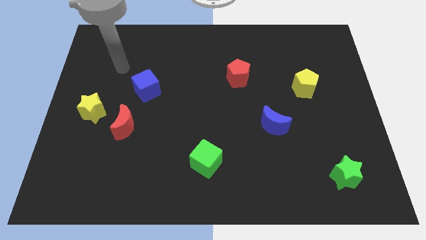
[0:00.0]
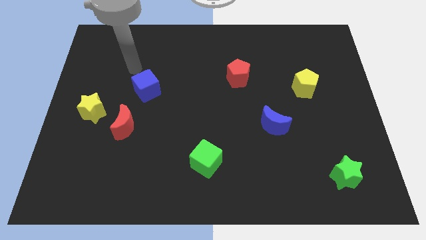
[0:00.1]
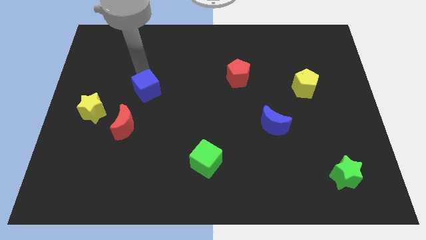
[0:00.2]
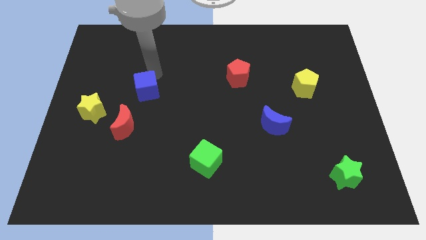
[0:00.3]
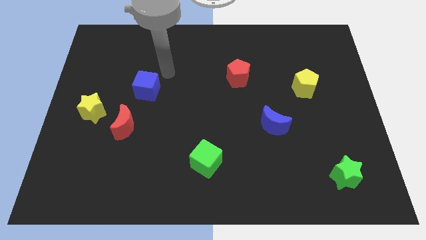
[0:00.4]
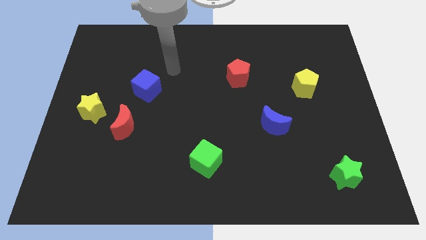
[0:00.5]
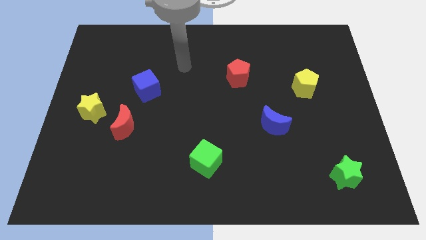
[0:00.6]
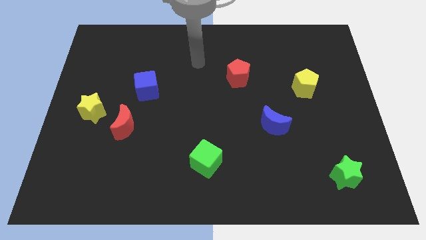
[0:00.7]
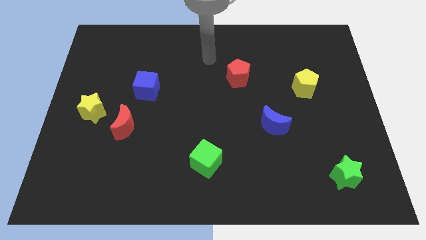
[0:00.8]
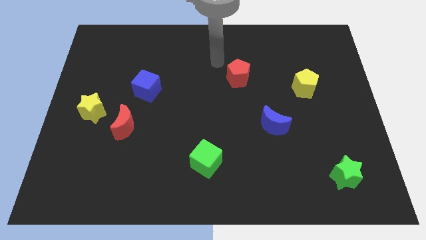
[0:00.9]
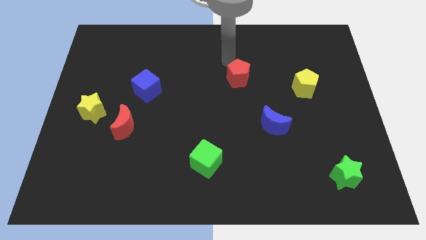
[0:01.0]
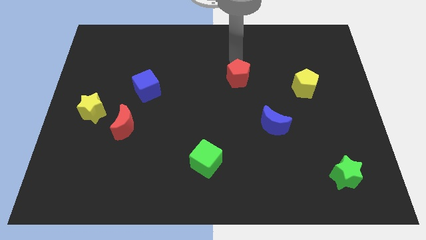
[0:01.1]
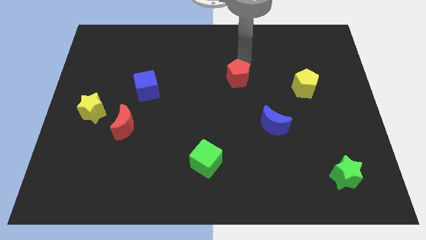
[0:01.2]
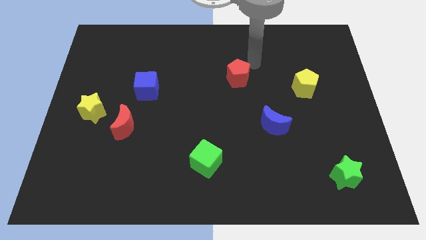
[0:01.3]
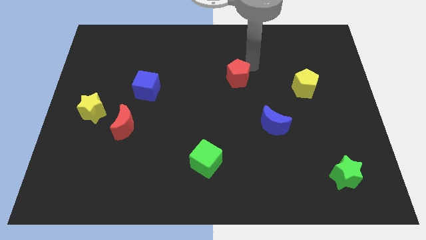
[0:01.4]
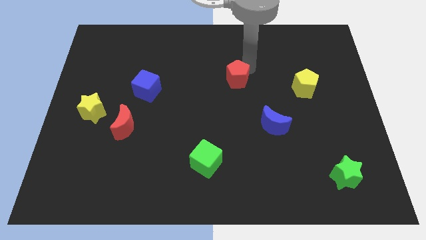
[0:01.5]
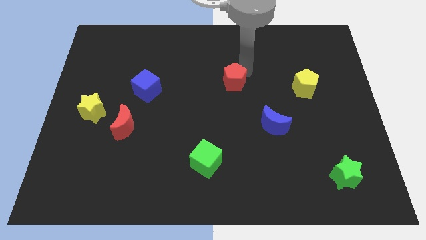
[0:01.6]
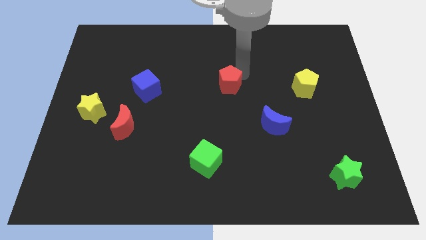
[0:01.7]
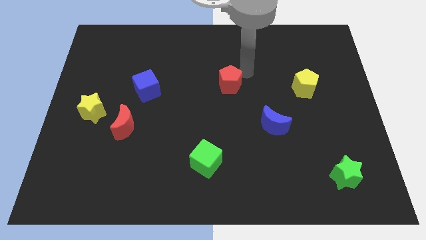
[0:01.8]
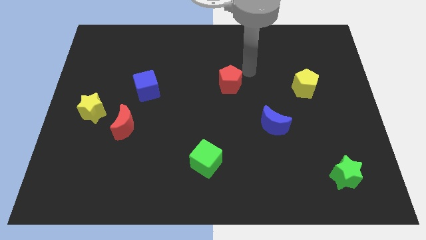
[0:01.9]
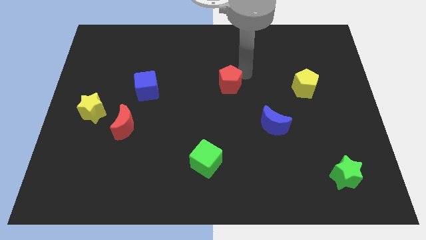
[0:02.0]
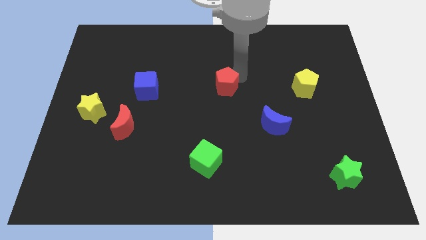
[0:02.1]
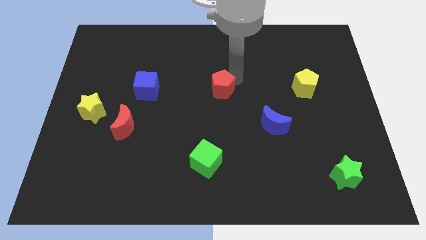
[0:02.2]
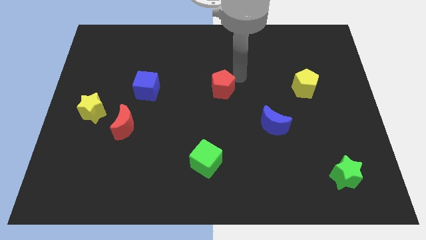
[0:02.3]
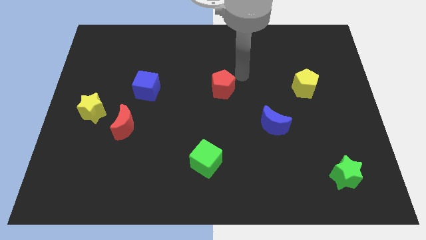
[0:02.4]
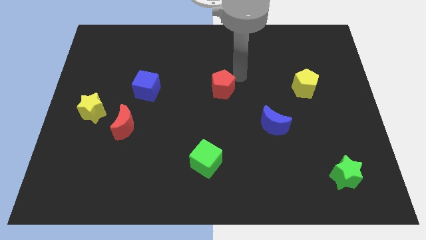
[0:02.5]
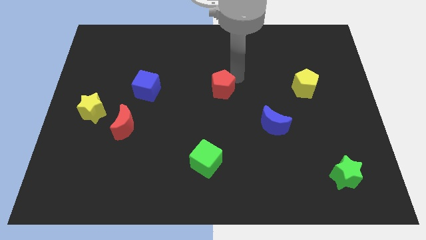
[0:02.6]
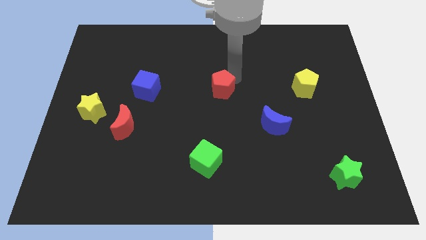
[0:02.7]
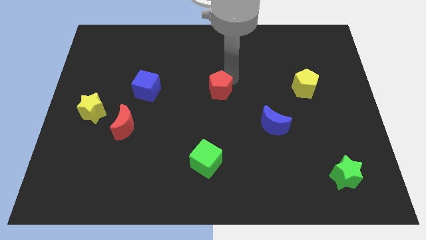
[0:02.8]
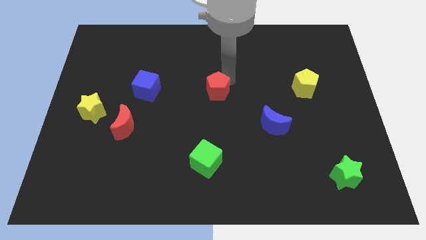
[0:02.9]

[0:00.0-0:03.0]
push the red pentagon somewhat down and to the left

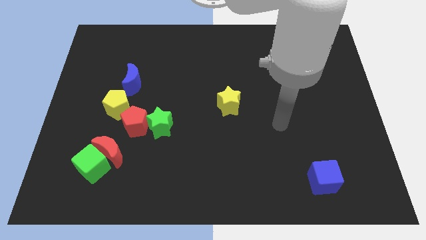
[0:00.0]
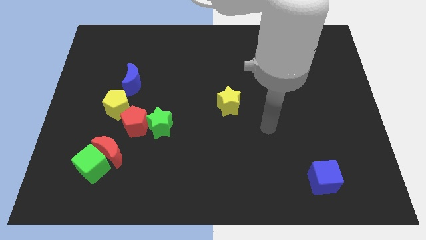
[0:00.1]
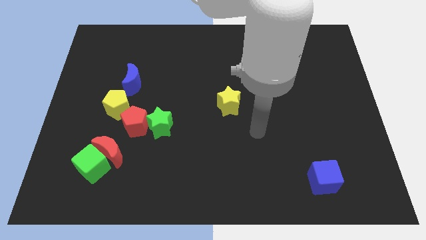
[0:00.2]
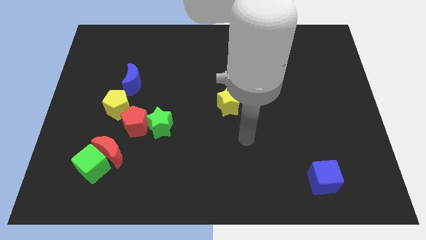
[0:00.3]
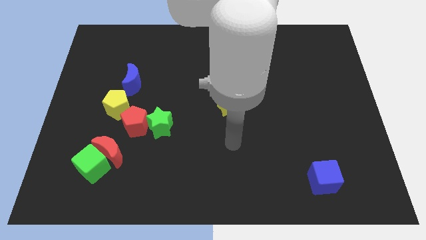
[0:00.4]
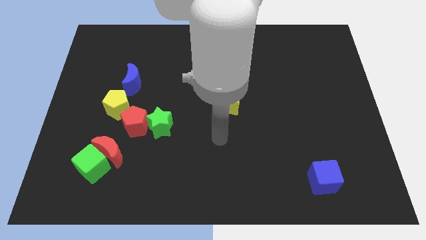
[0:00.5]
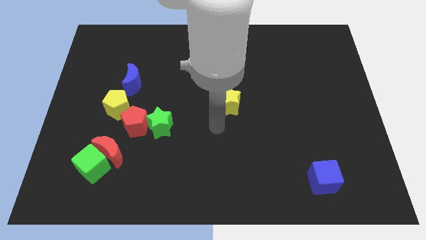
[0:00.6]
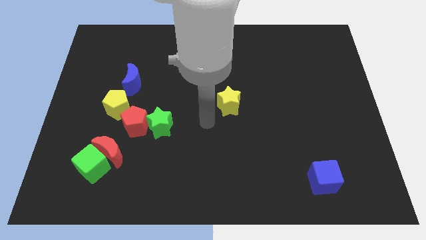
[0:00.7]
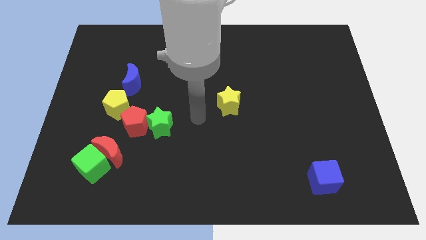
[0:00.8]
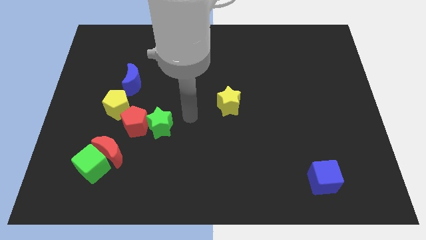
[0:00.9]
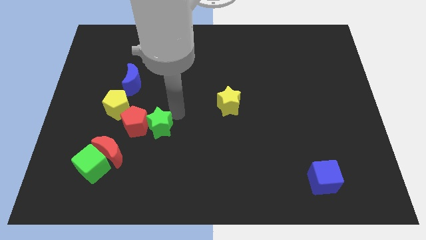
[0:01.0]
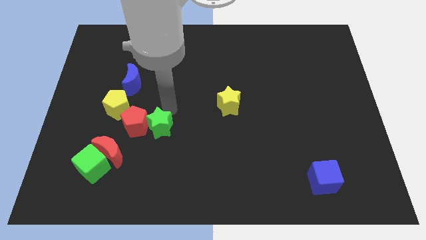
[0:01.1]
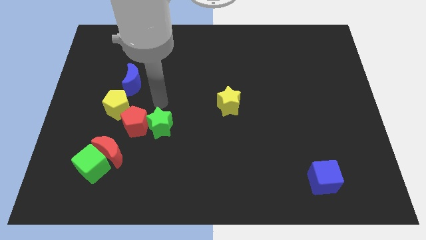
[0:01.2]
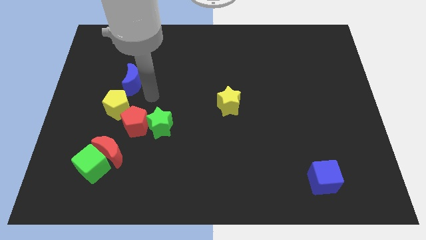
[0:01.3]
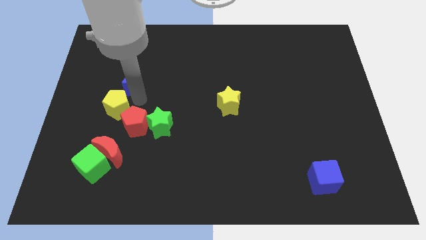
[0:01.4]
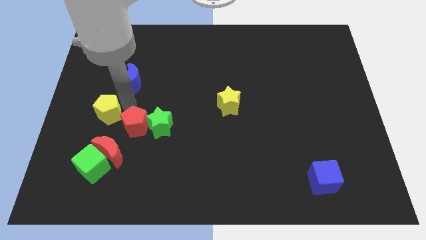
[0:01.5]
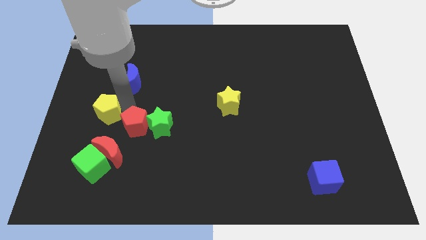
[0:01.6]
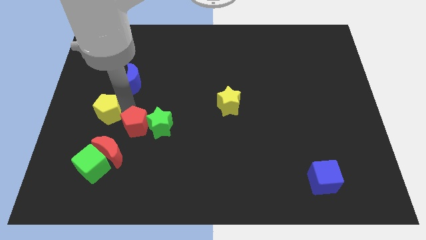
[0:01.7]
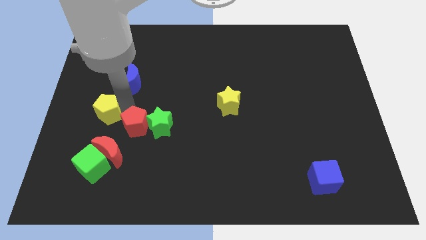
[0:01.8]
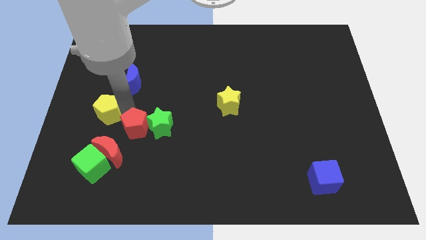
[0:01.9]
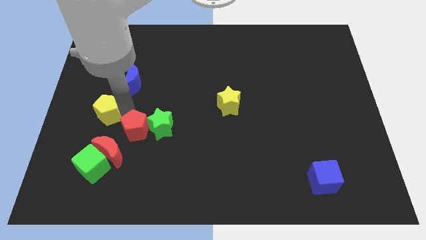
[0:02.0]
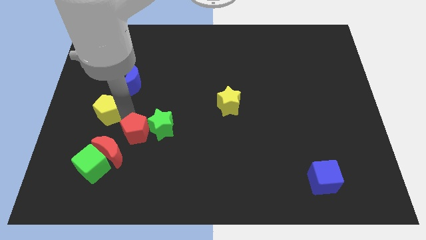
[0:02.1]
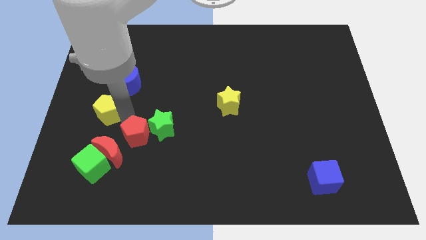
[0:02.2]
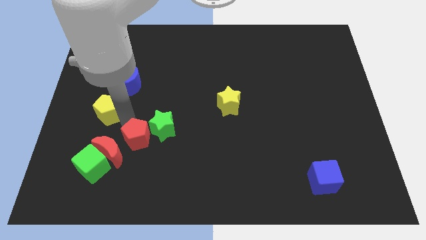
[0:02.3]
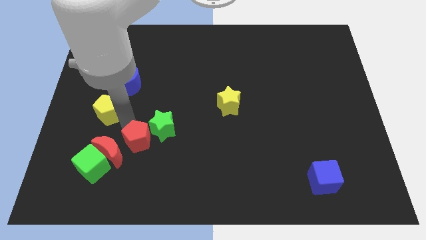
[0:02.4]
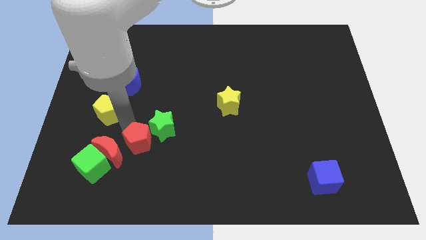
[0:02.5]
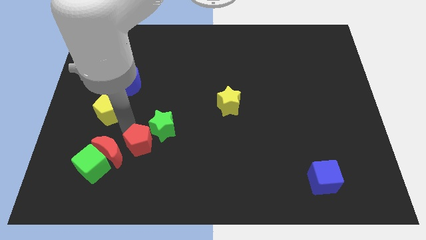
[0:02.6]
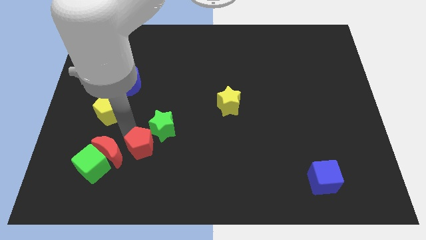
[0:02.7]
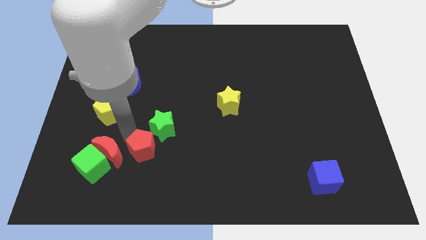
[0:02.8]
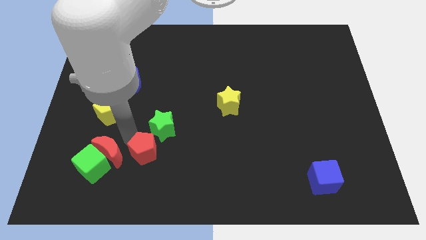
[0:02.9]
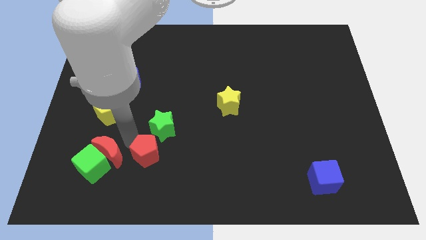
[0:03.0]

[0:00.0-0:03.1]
slightly slide the red pentagon diagonally down and to the right

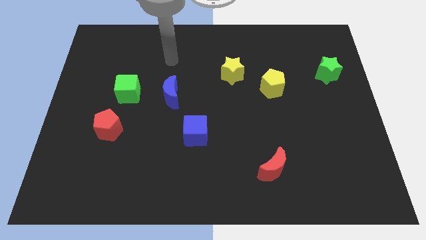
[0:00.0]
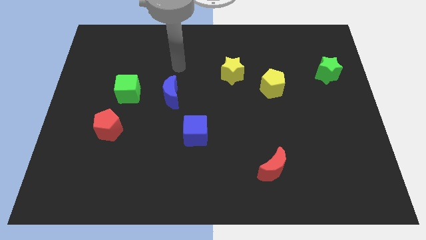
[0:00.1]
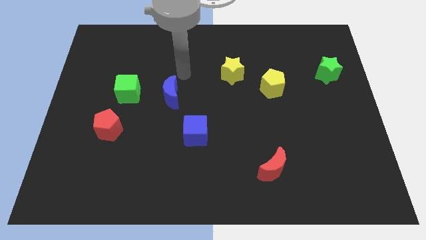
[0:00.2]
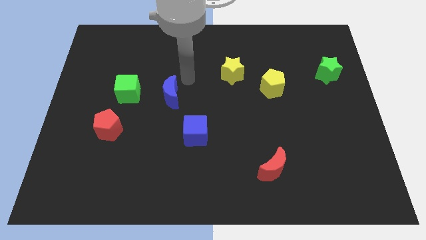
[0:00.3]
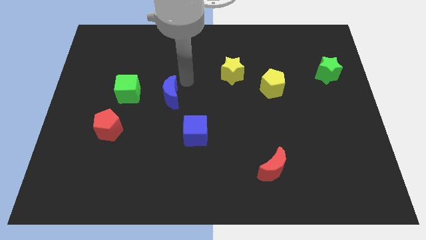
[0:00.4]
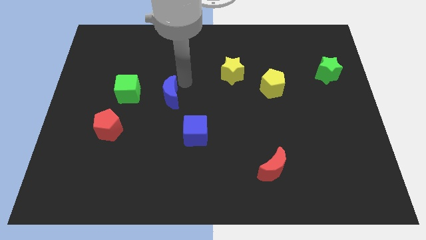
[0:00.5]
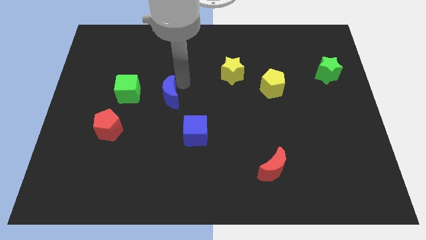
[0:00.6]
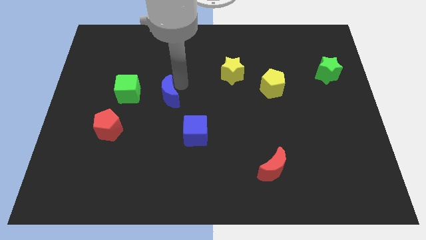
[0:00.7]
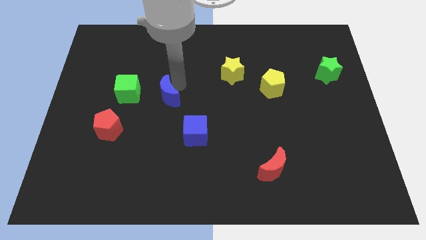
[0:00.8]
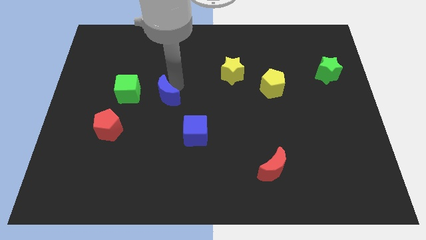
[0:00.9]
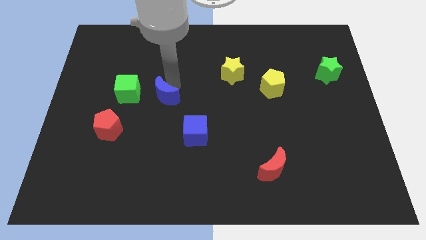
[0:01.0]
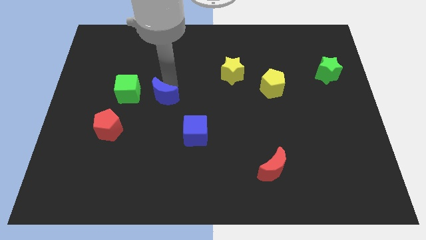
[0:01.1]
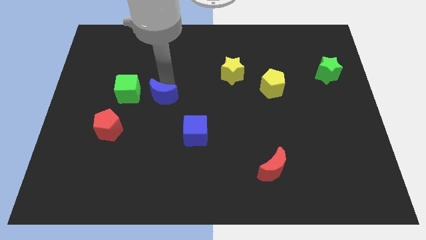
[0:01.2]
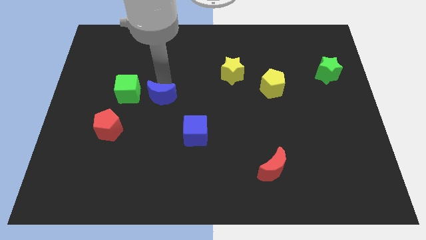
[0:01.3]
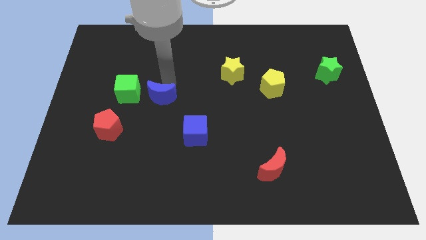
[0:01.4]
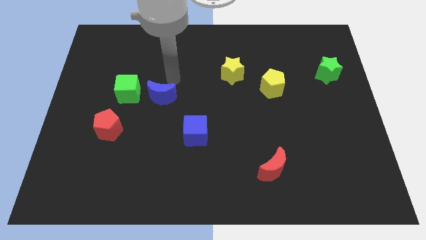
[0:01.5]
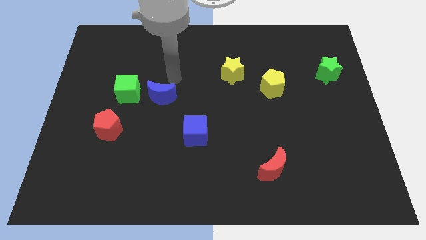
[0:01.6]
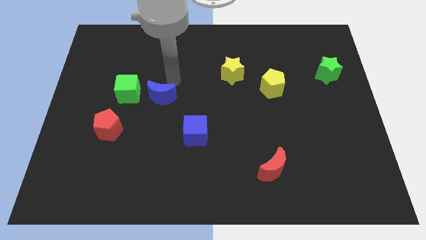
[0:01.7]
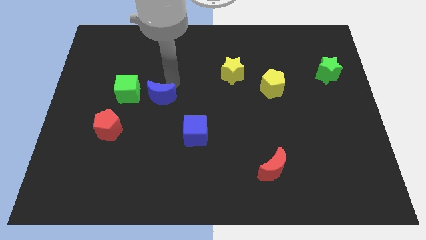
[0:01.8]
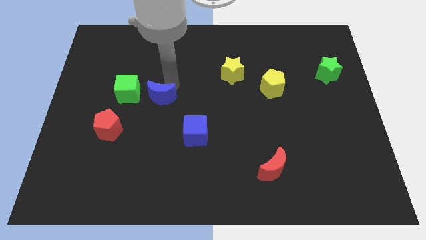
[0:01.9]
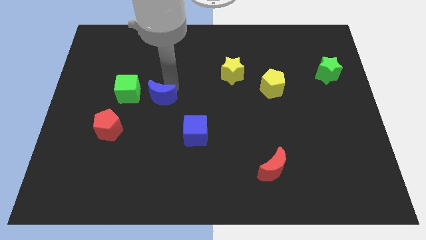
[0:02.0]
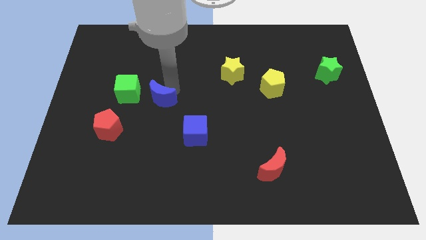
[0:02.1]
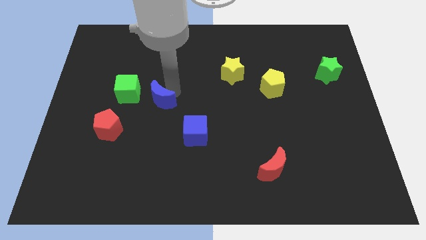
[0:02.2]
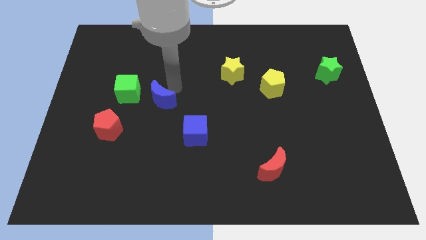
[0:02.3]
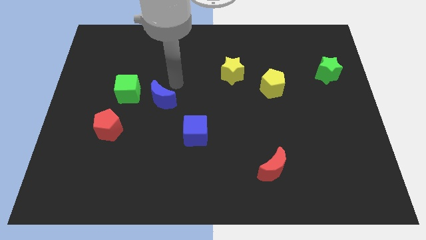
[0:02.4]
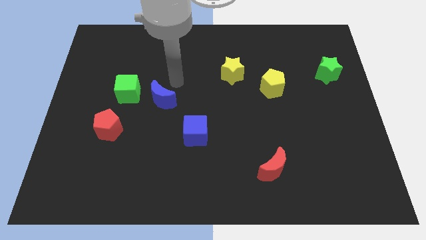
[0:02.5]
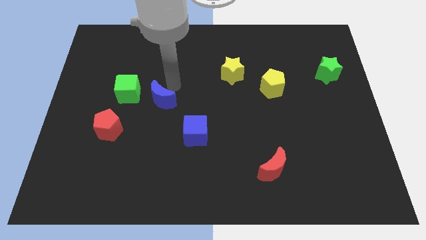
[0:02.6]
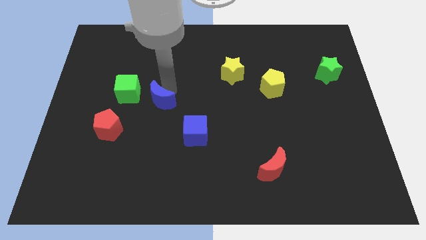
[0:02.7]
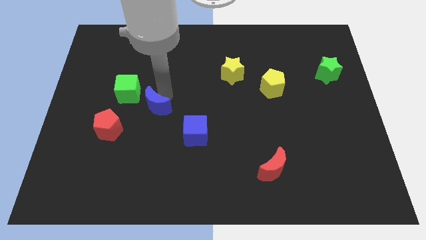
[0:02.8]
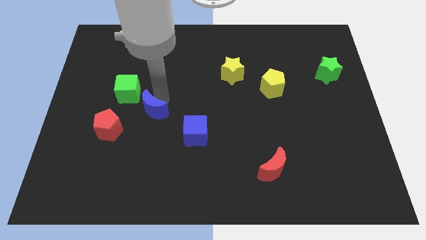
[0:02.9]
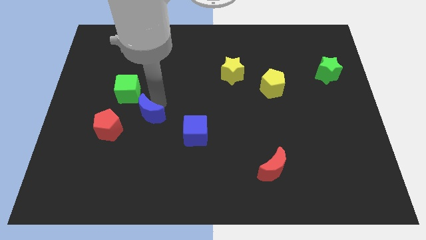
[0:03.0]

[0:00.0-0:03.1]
slightly slide the blue moon diagonally down and left
